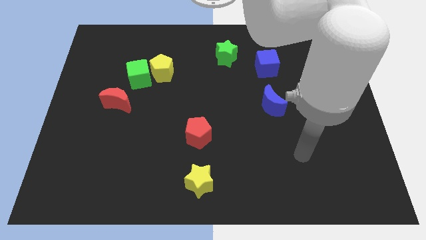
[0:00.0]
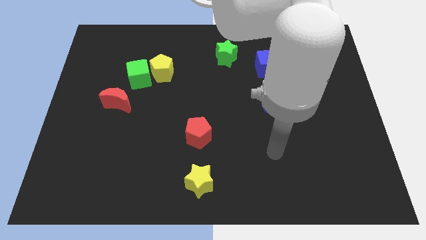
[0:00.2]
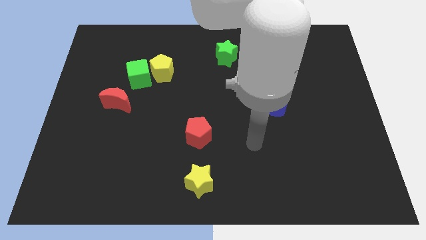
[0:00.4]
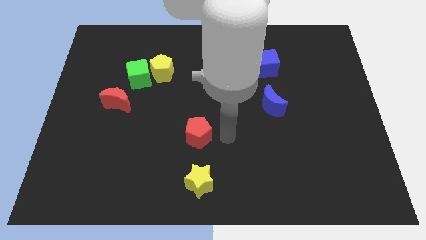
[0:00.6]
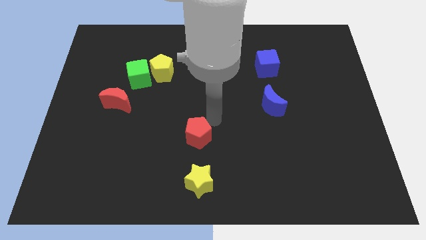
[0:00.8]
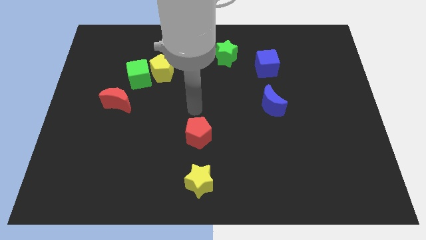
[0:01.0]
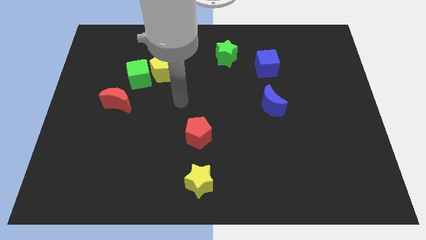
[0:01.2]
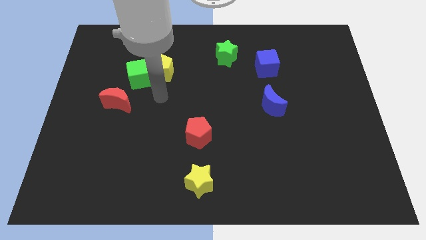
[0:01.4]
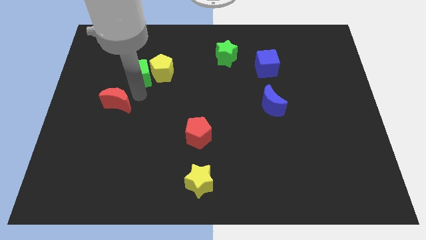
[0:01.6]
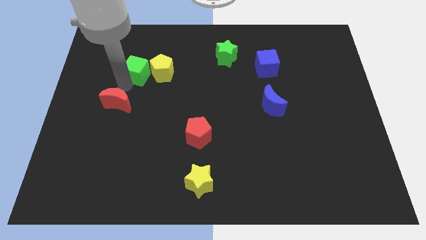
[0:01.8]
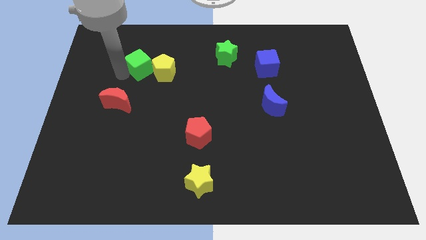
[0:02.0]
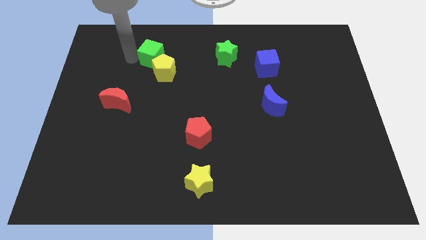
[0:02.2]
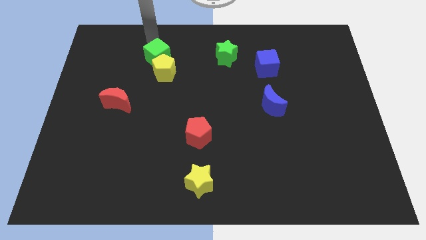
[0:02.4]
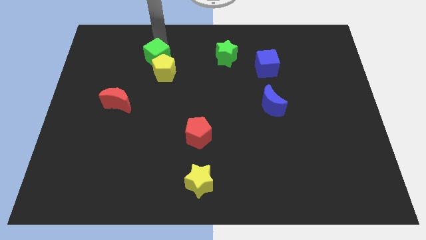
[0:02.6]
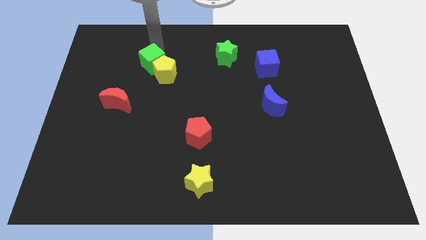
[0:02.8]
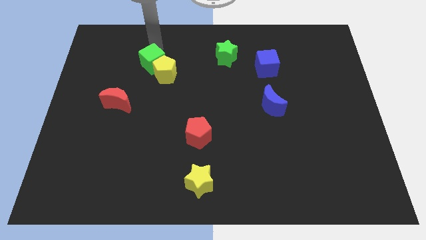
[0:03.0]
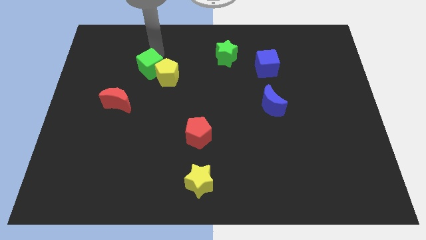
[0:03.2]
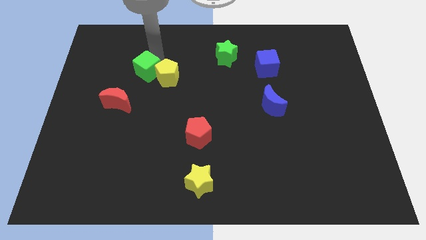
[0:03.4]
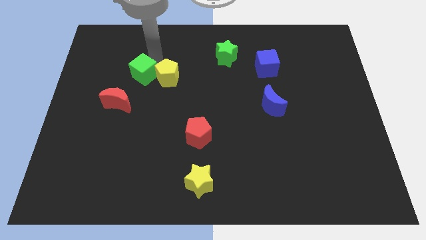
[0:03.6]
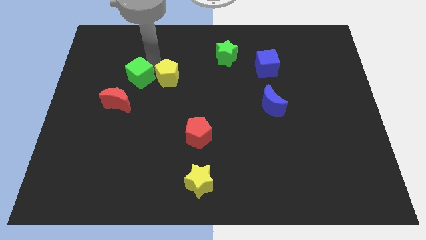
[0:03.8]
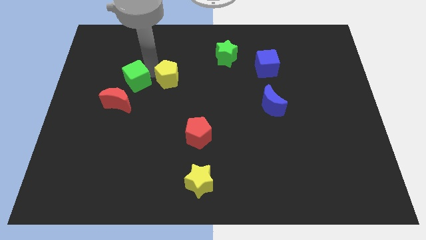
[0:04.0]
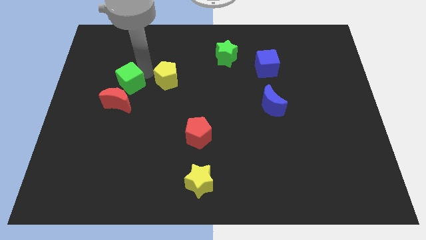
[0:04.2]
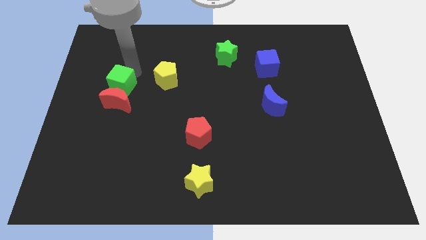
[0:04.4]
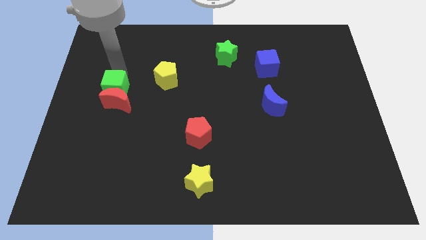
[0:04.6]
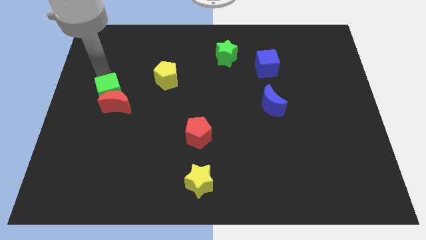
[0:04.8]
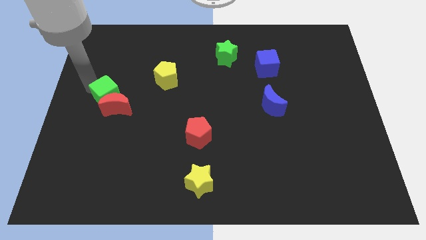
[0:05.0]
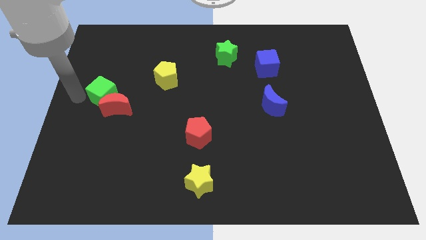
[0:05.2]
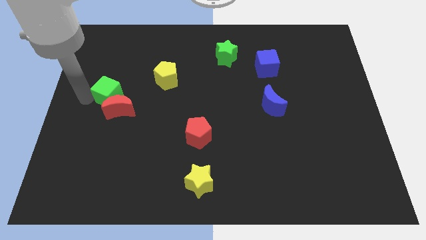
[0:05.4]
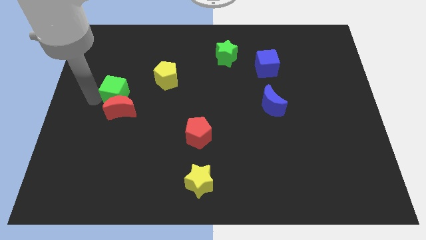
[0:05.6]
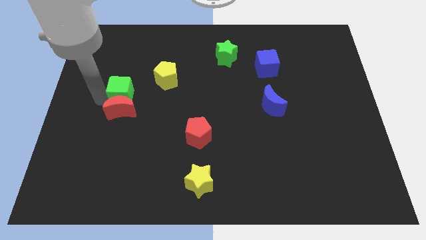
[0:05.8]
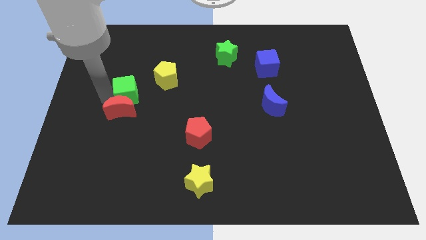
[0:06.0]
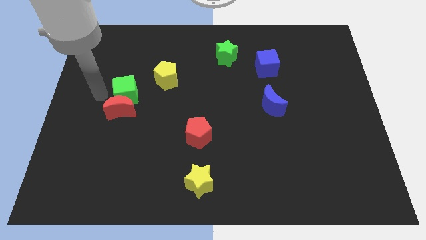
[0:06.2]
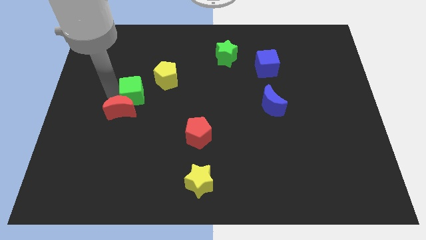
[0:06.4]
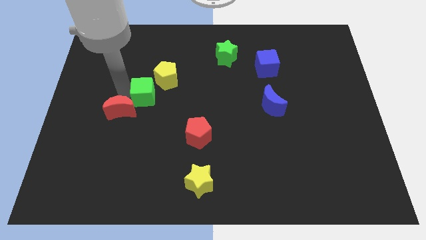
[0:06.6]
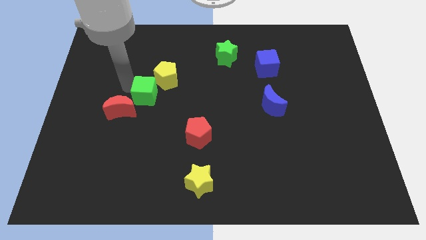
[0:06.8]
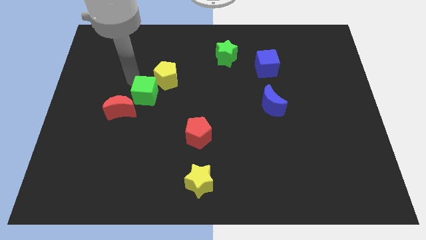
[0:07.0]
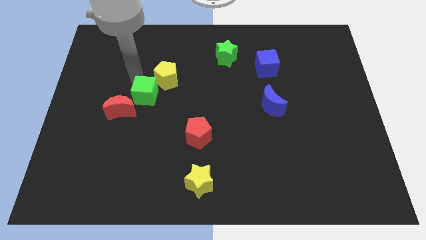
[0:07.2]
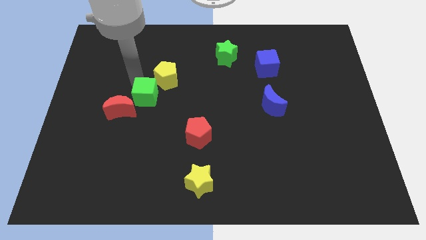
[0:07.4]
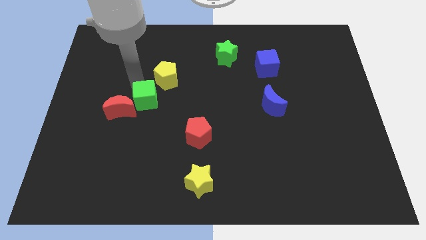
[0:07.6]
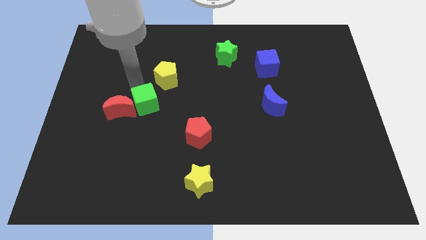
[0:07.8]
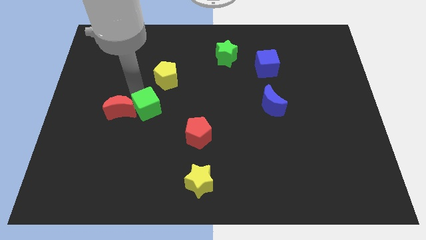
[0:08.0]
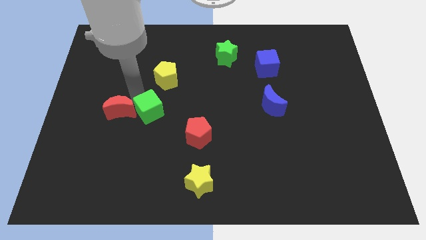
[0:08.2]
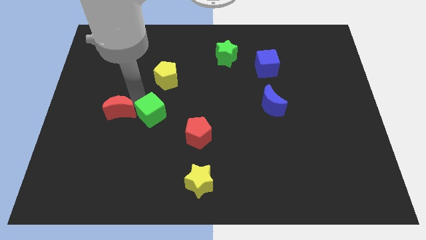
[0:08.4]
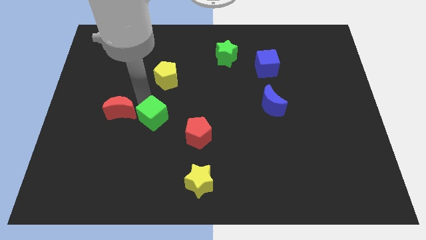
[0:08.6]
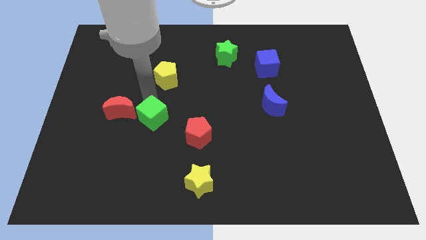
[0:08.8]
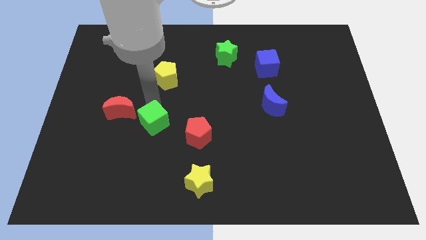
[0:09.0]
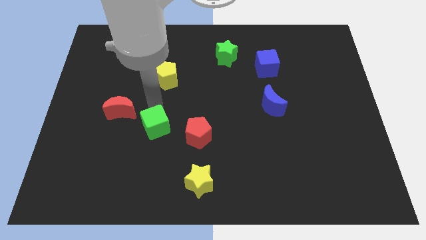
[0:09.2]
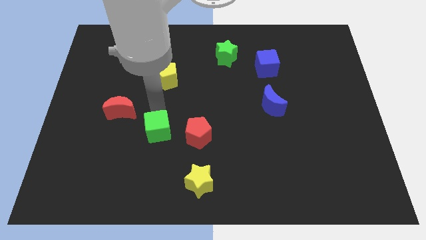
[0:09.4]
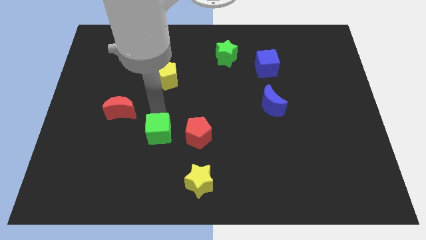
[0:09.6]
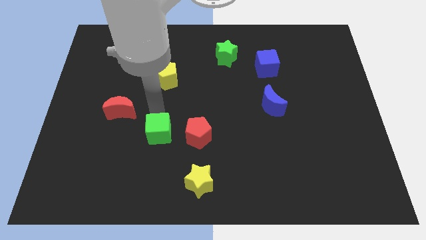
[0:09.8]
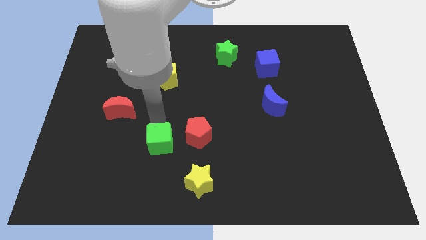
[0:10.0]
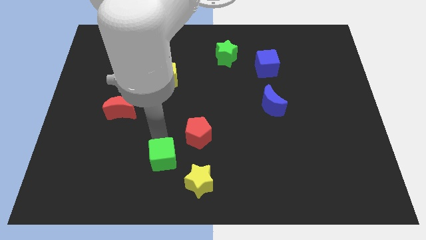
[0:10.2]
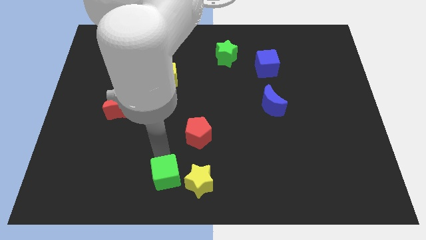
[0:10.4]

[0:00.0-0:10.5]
move the green cube to the bottom side

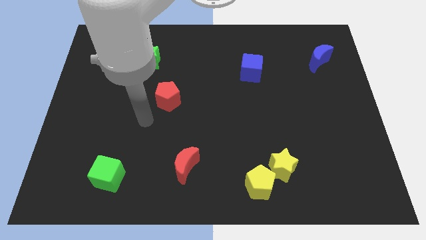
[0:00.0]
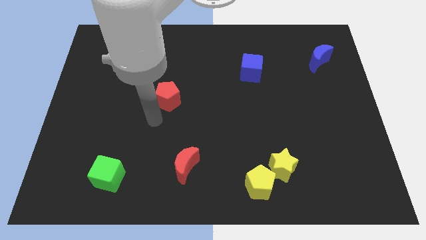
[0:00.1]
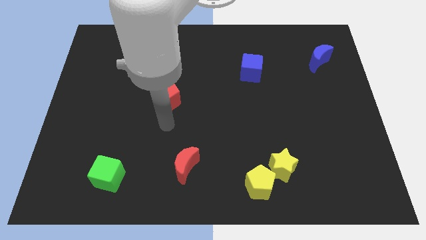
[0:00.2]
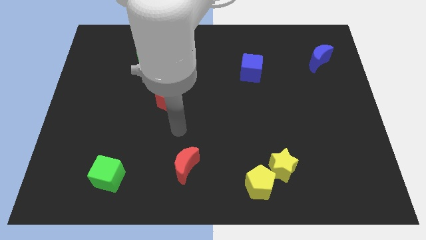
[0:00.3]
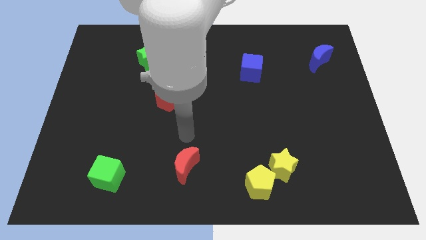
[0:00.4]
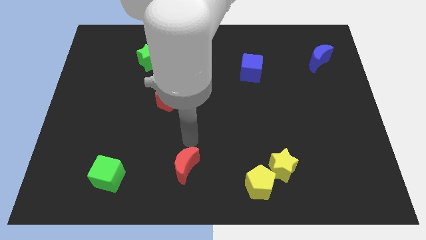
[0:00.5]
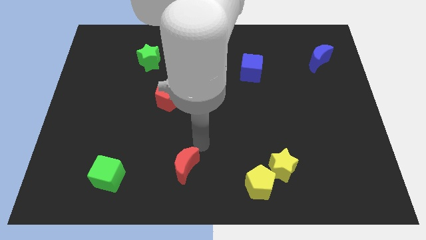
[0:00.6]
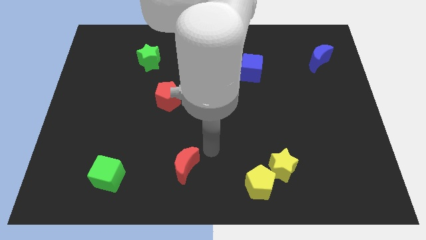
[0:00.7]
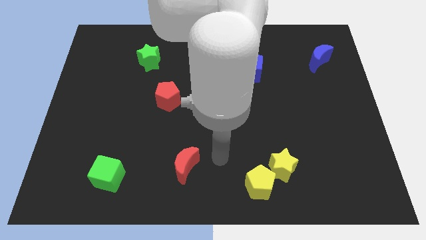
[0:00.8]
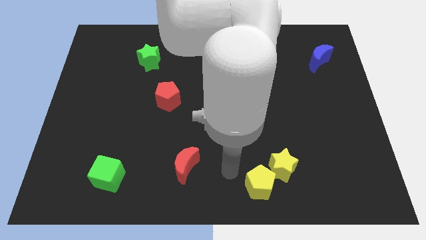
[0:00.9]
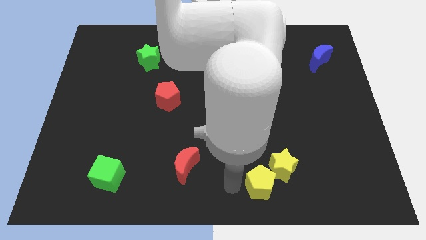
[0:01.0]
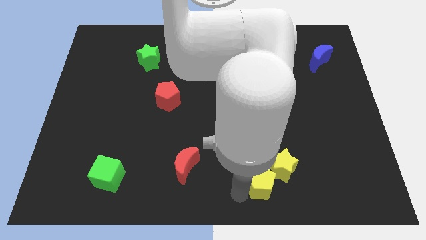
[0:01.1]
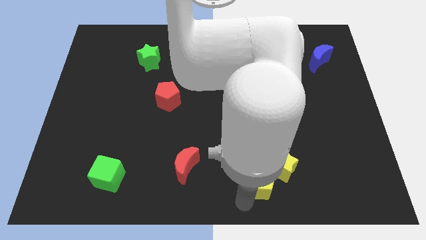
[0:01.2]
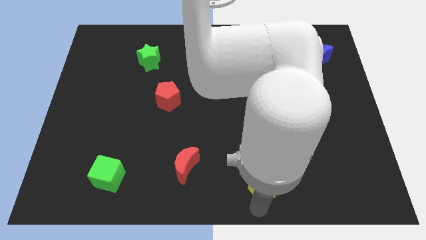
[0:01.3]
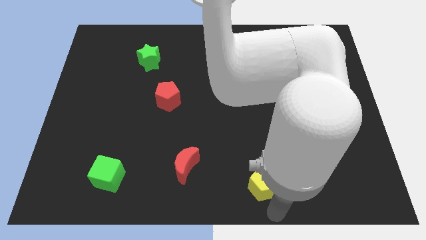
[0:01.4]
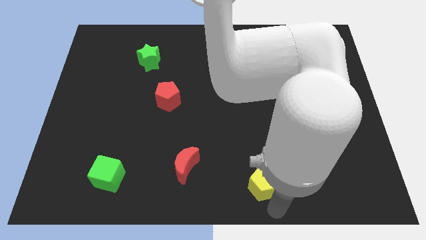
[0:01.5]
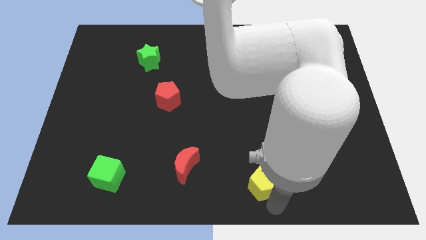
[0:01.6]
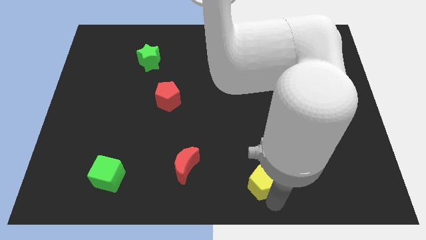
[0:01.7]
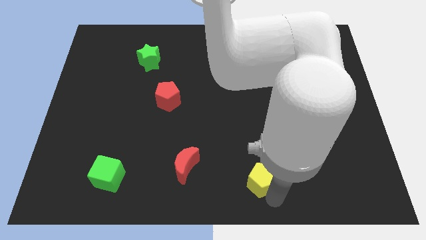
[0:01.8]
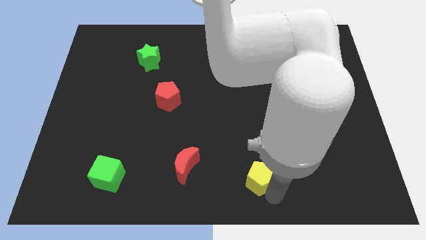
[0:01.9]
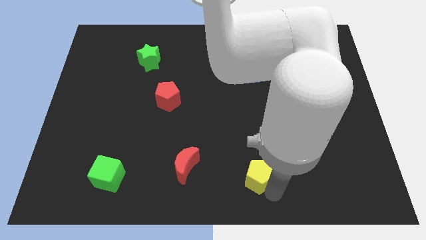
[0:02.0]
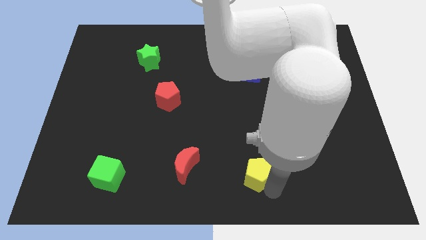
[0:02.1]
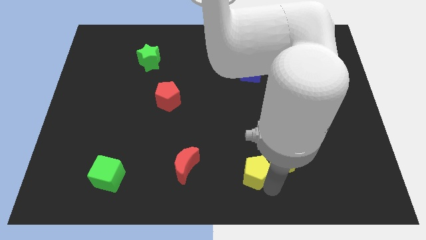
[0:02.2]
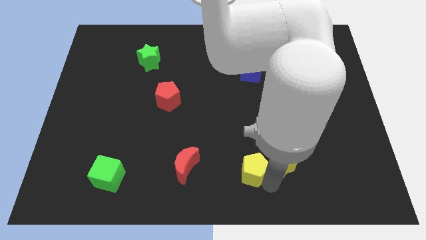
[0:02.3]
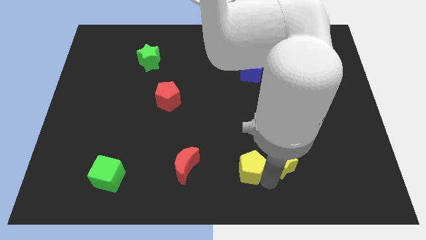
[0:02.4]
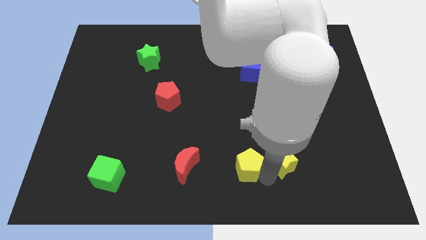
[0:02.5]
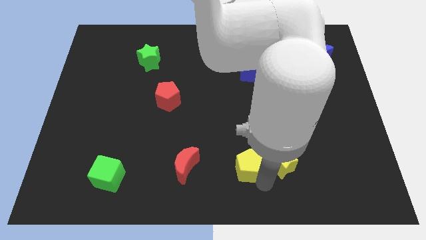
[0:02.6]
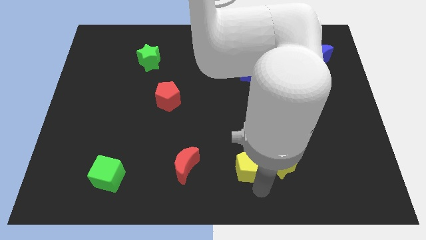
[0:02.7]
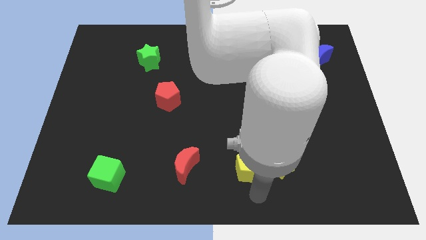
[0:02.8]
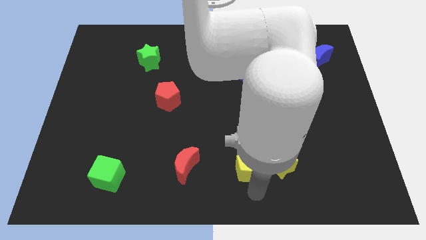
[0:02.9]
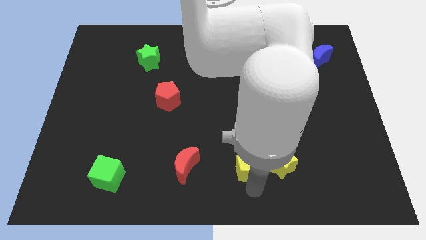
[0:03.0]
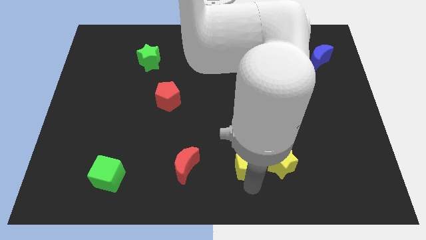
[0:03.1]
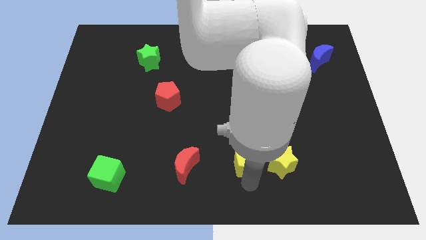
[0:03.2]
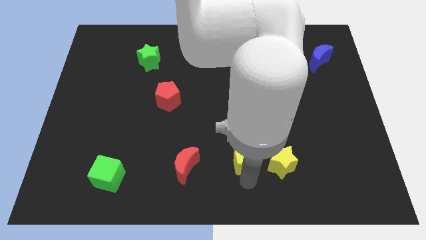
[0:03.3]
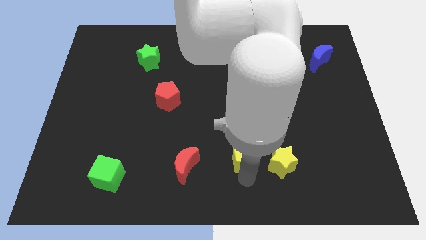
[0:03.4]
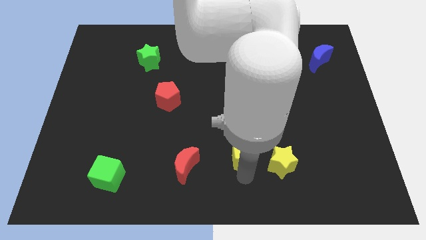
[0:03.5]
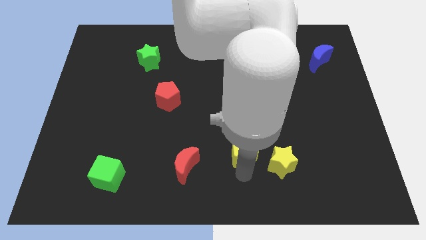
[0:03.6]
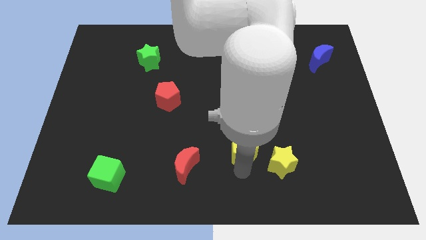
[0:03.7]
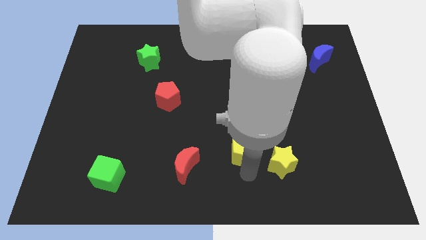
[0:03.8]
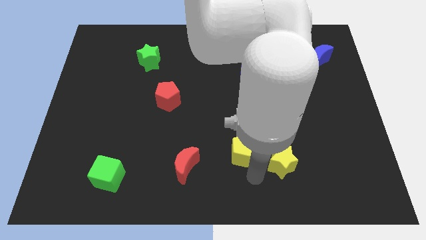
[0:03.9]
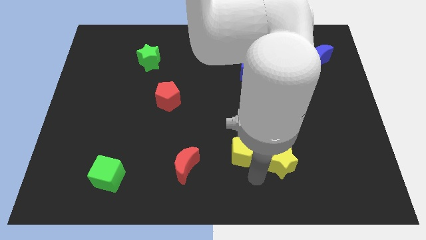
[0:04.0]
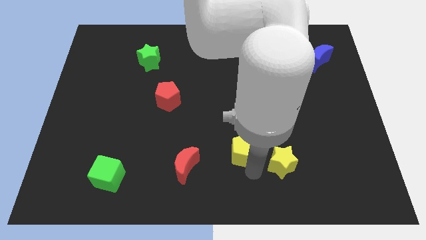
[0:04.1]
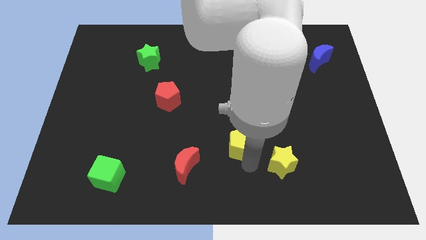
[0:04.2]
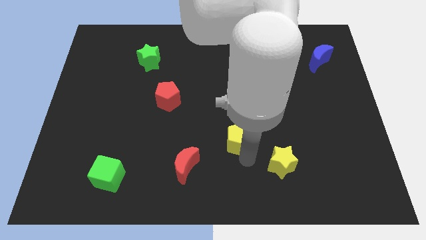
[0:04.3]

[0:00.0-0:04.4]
put the yellow pentagon to the middle of the board
